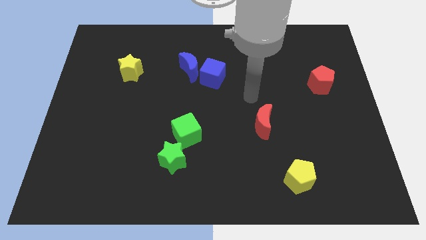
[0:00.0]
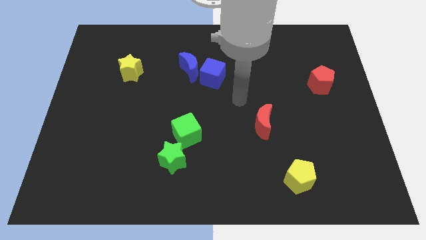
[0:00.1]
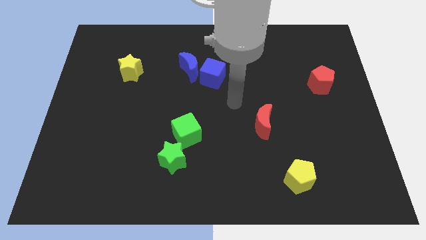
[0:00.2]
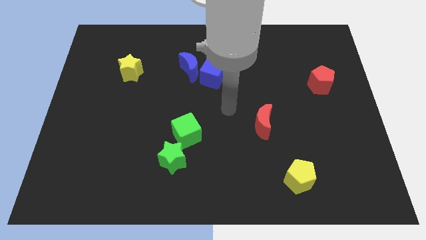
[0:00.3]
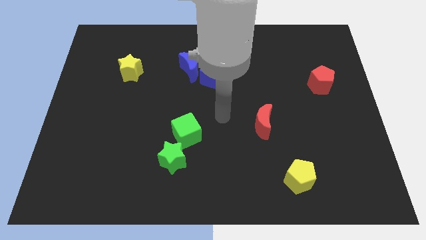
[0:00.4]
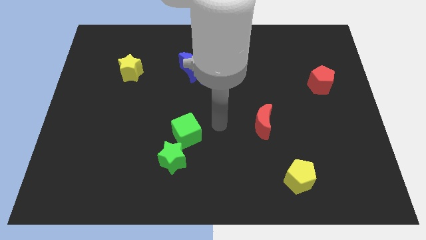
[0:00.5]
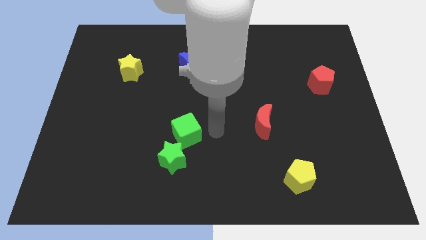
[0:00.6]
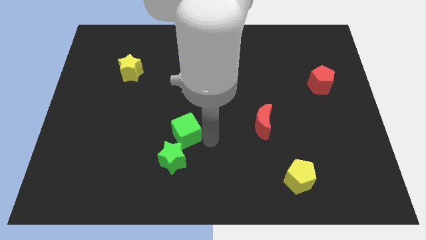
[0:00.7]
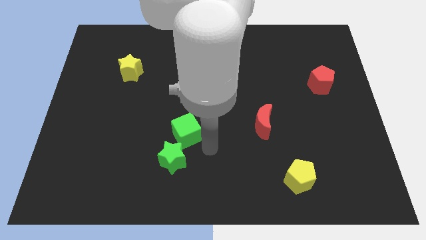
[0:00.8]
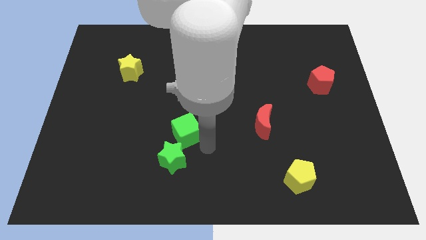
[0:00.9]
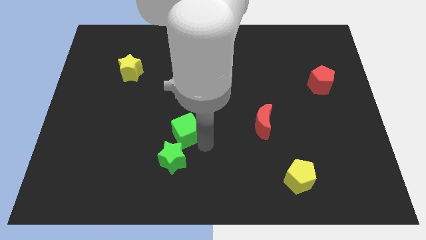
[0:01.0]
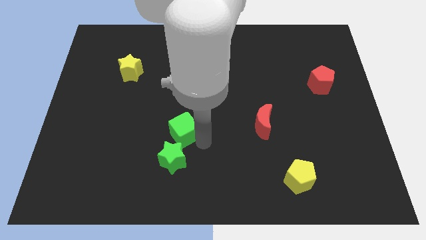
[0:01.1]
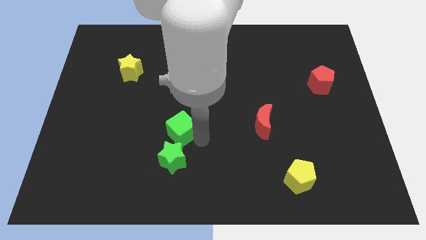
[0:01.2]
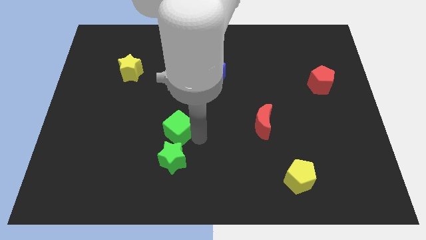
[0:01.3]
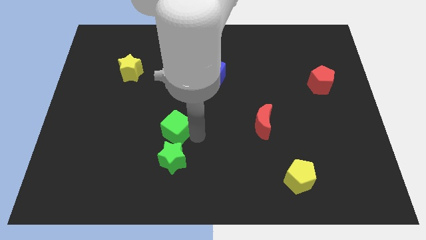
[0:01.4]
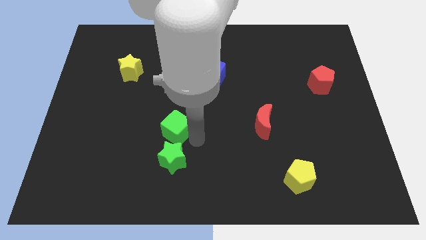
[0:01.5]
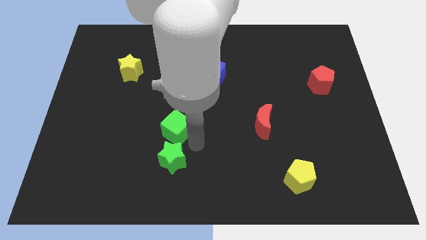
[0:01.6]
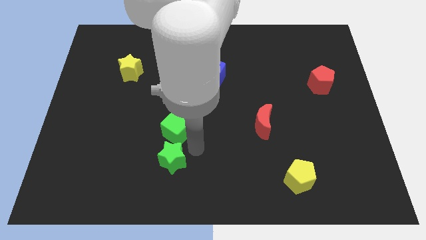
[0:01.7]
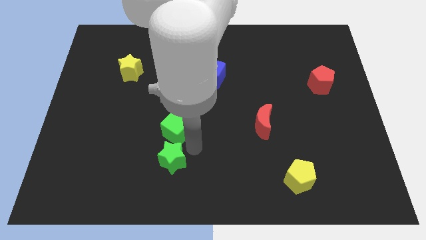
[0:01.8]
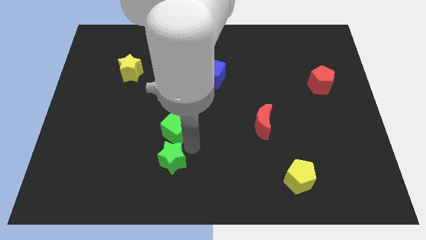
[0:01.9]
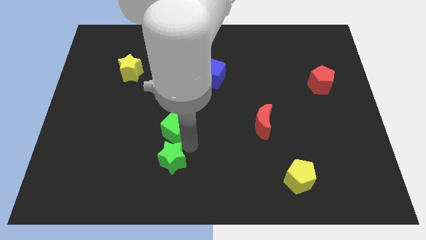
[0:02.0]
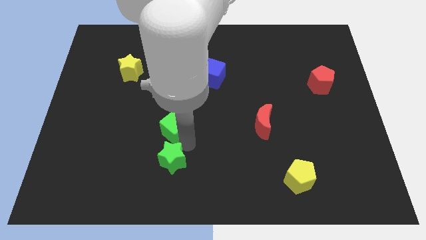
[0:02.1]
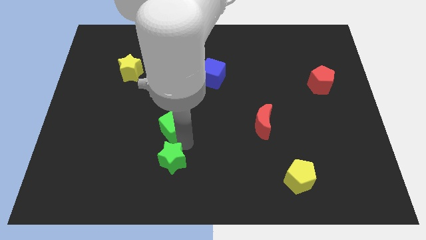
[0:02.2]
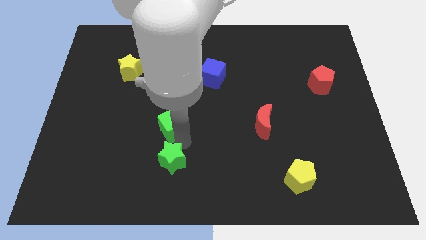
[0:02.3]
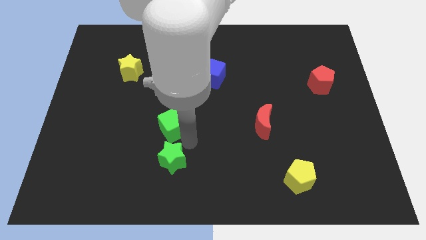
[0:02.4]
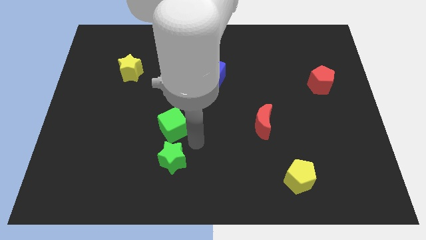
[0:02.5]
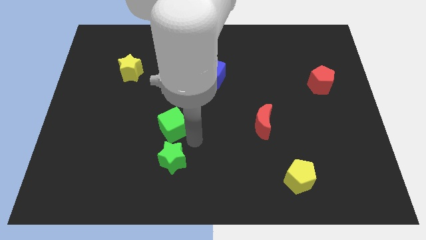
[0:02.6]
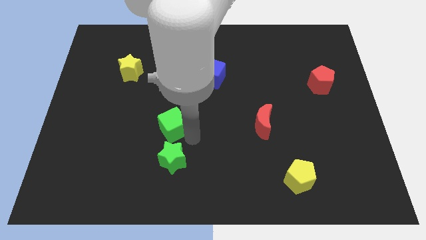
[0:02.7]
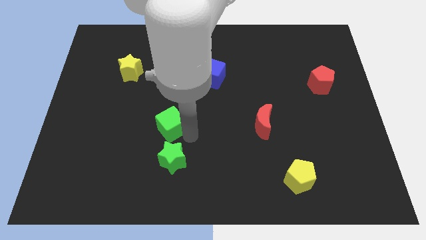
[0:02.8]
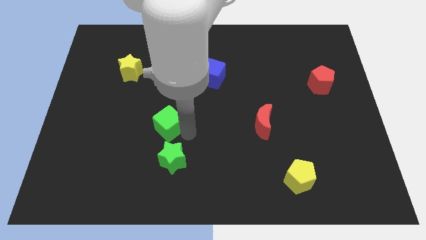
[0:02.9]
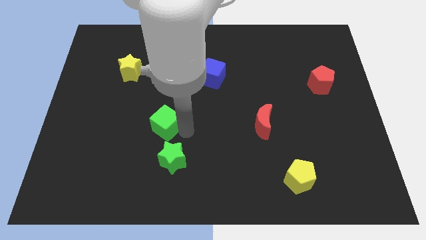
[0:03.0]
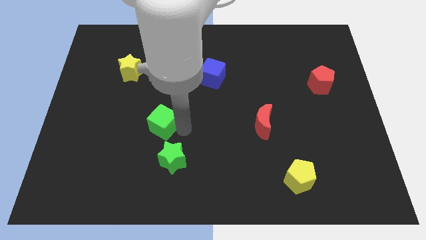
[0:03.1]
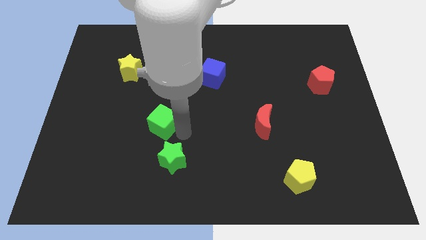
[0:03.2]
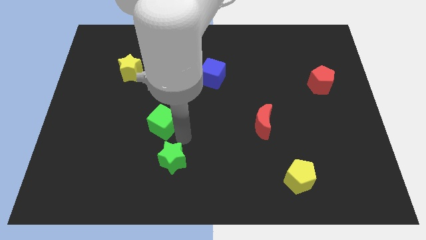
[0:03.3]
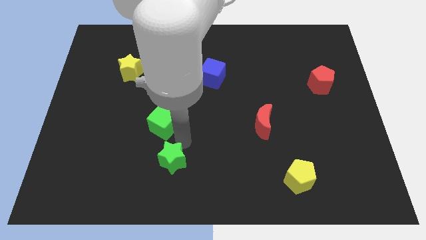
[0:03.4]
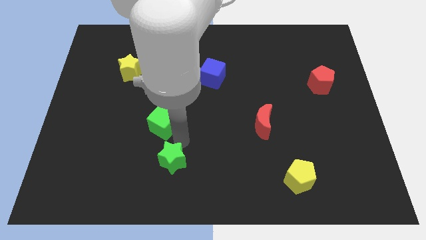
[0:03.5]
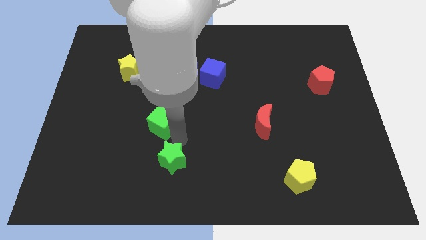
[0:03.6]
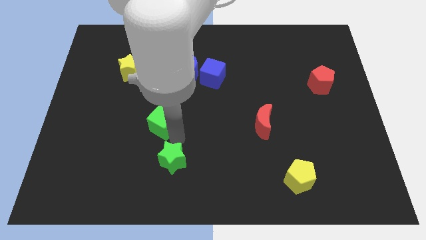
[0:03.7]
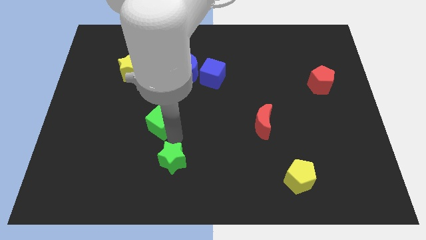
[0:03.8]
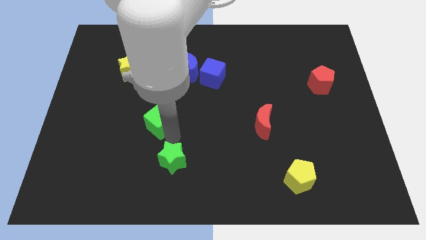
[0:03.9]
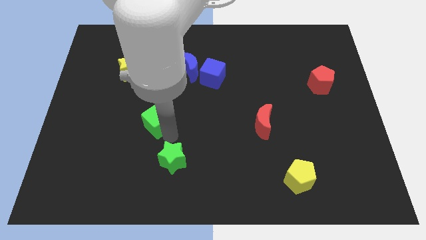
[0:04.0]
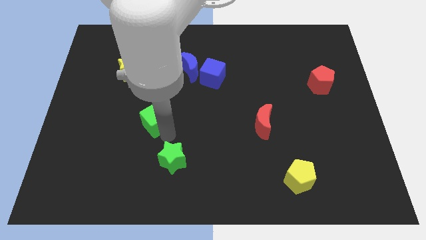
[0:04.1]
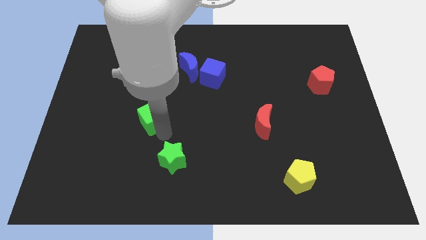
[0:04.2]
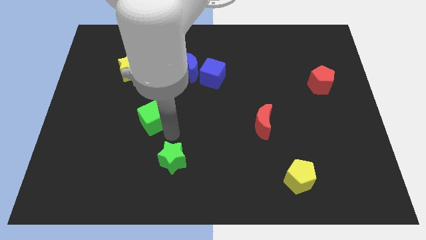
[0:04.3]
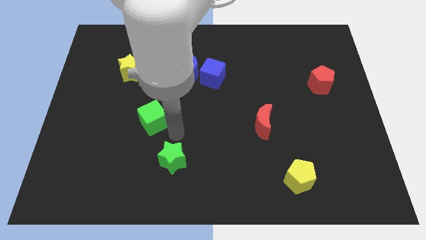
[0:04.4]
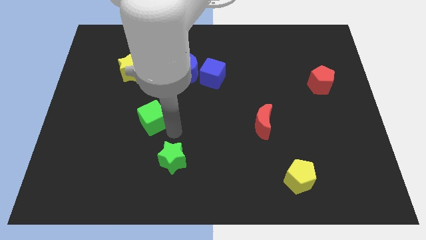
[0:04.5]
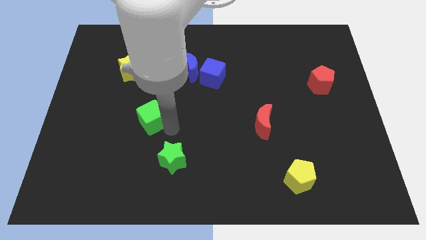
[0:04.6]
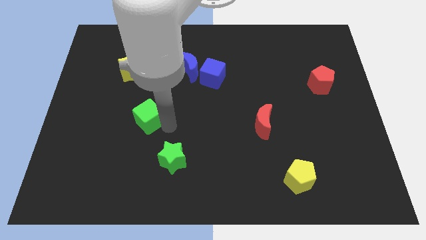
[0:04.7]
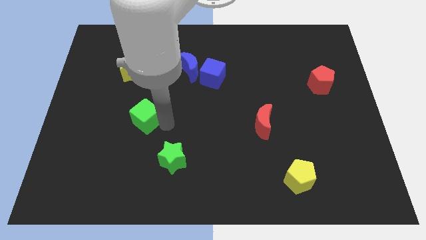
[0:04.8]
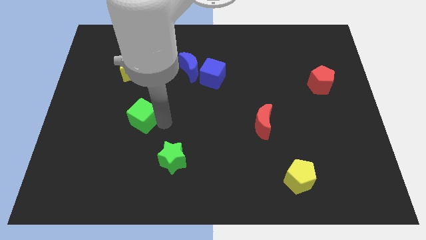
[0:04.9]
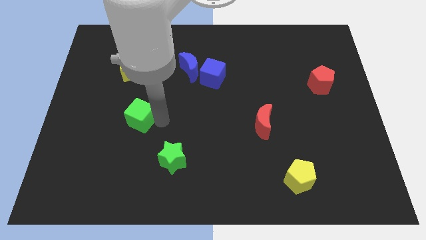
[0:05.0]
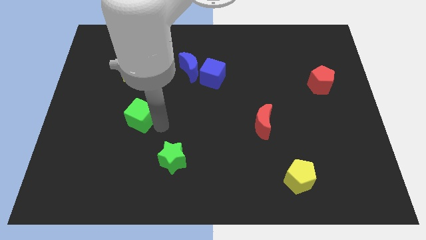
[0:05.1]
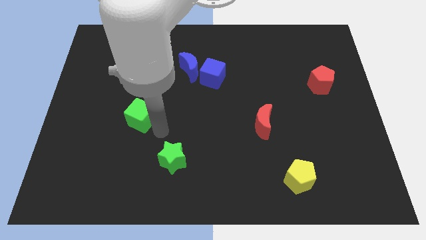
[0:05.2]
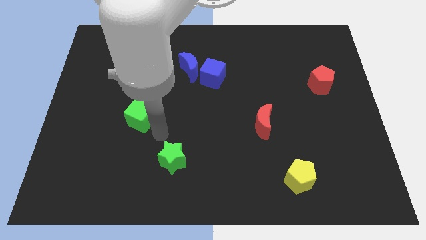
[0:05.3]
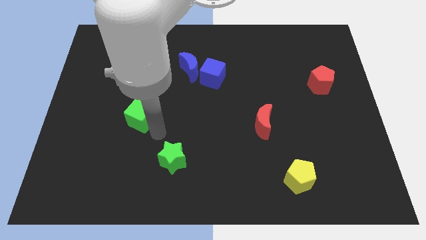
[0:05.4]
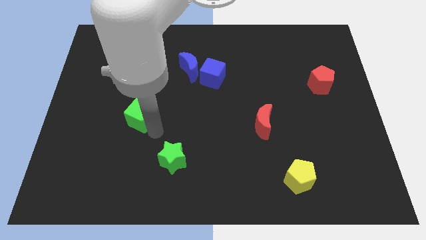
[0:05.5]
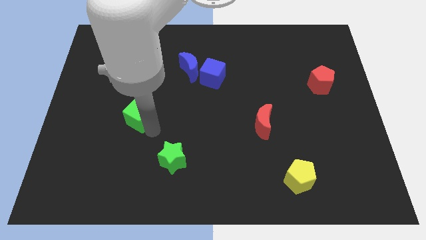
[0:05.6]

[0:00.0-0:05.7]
move the green cube below the yellow star

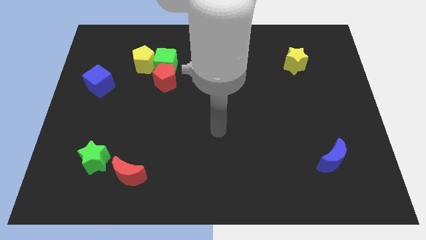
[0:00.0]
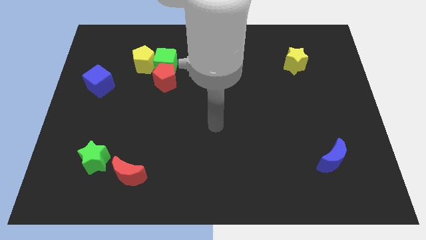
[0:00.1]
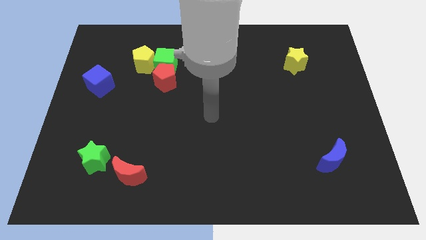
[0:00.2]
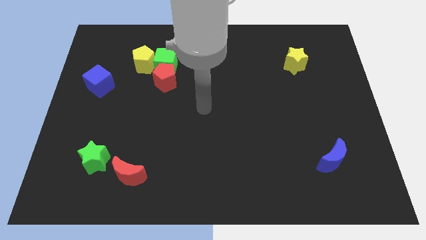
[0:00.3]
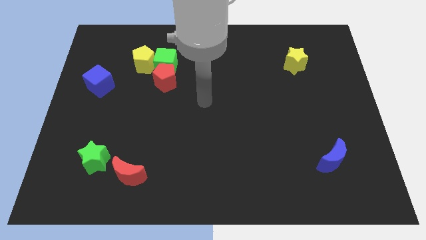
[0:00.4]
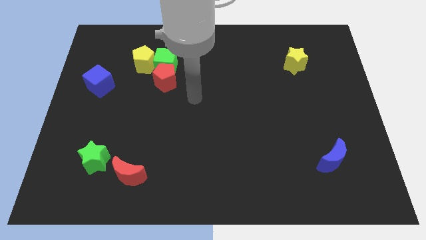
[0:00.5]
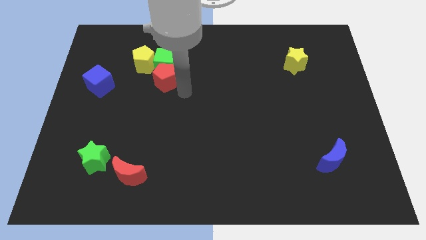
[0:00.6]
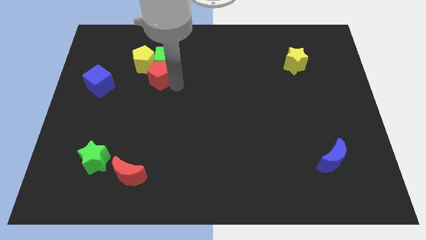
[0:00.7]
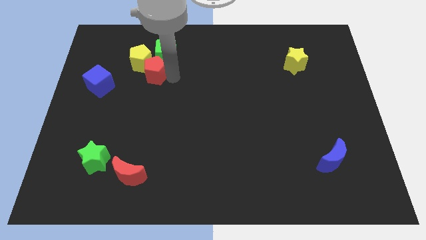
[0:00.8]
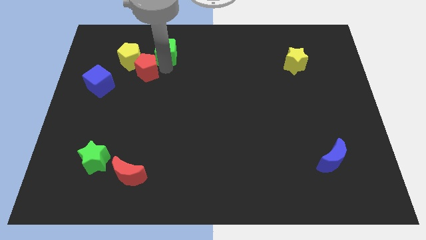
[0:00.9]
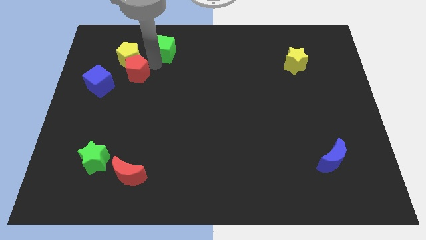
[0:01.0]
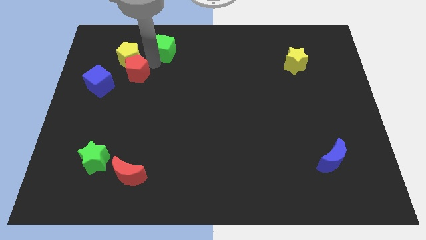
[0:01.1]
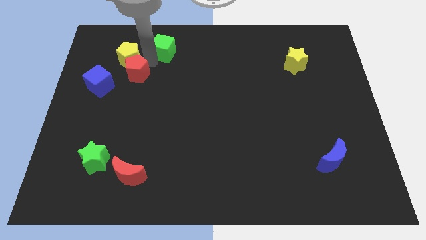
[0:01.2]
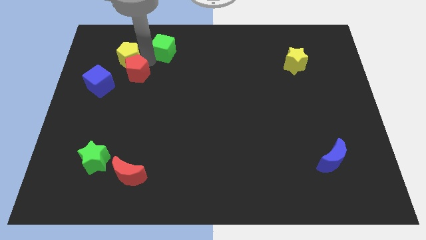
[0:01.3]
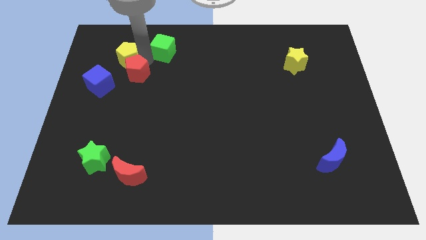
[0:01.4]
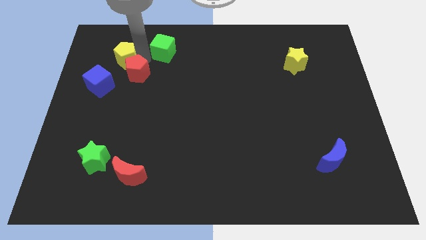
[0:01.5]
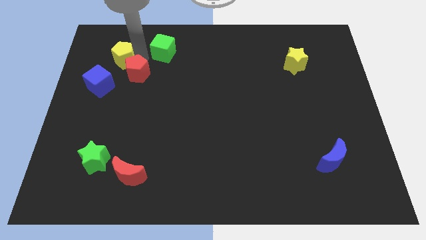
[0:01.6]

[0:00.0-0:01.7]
slide the yellow pentagon above the blue cube
